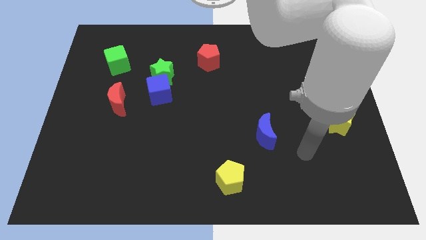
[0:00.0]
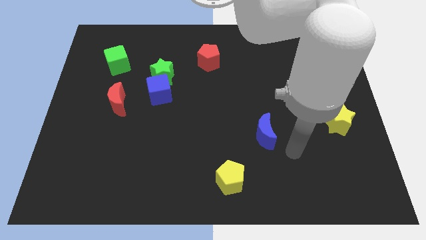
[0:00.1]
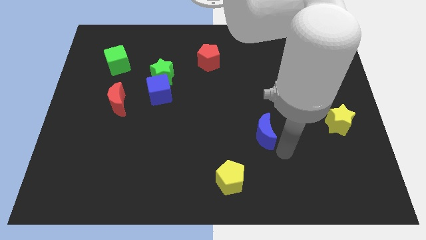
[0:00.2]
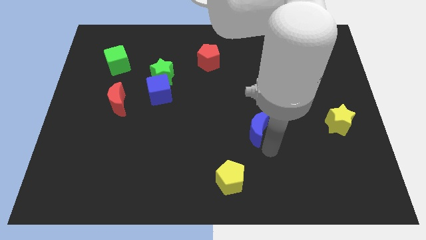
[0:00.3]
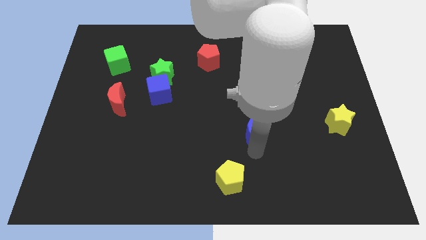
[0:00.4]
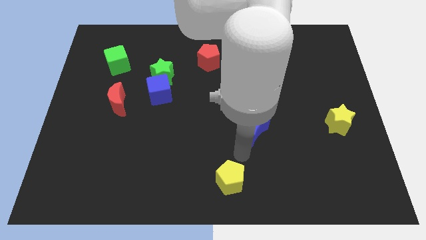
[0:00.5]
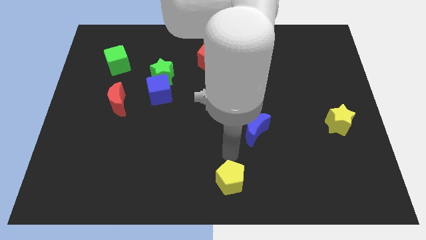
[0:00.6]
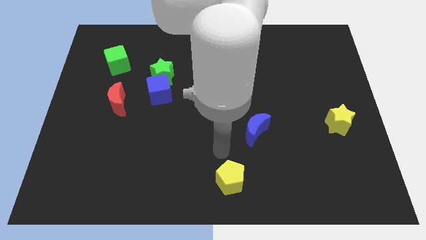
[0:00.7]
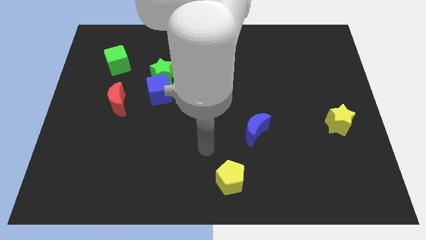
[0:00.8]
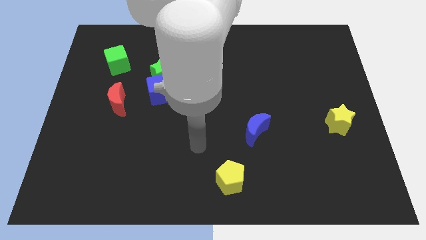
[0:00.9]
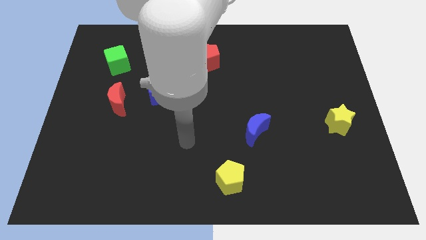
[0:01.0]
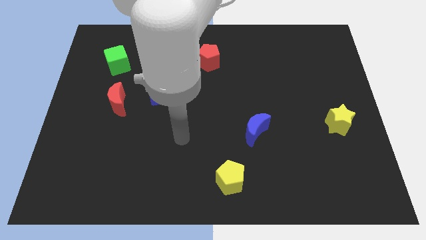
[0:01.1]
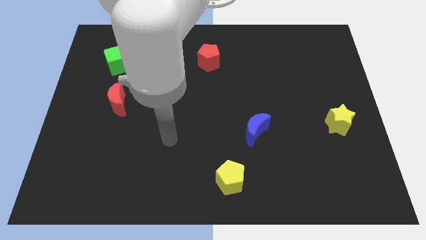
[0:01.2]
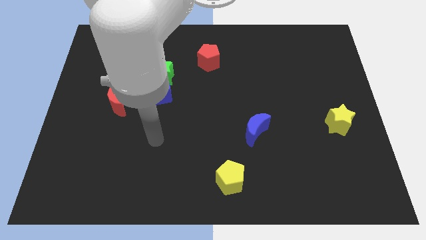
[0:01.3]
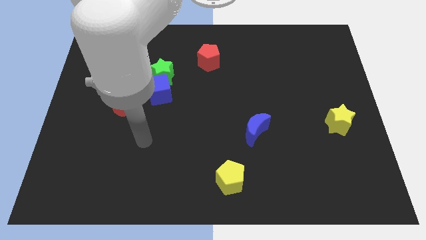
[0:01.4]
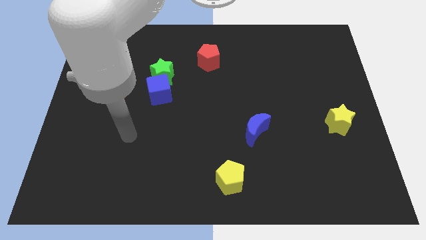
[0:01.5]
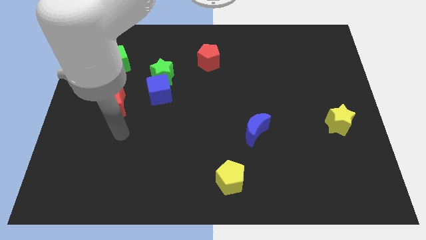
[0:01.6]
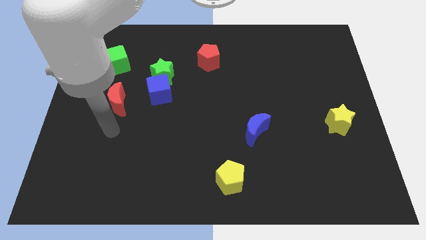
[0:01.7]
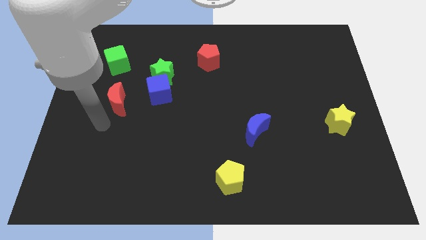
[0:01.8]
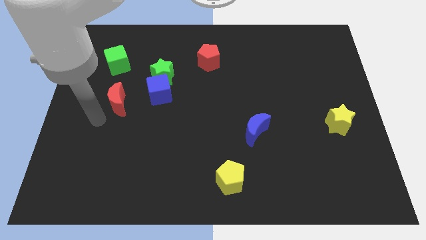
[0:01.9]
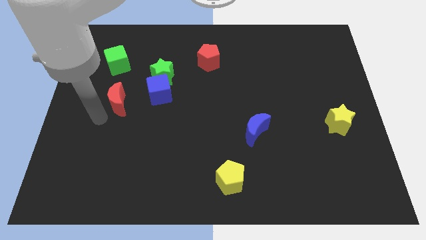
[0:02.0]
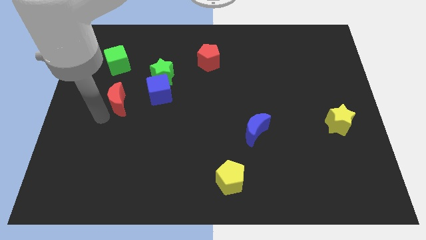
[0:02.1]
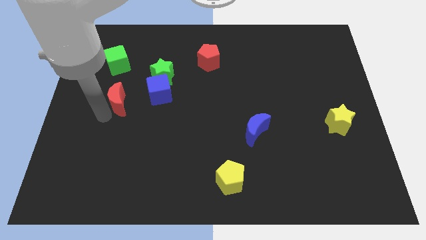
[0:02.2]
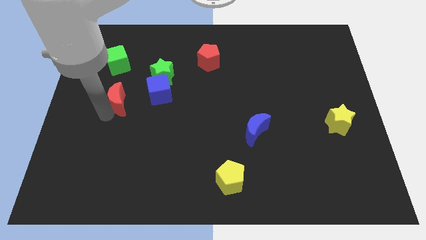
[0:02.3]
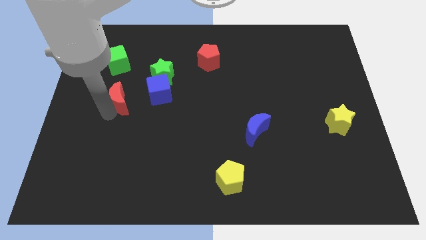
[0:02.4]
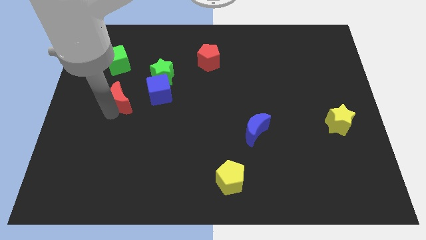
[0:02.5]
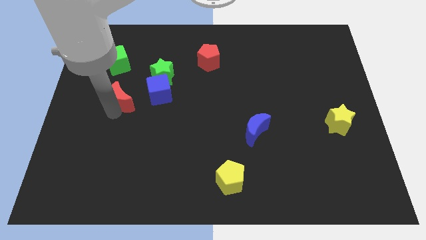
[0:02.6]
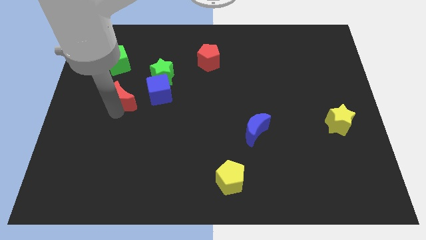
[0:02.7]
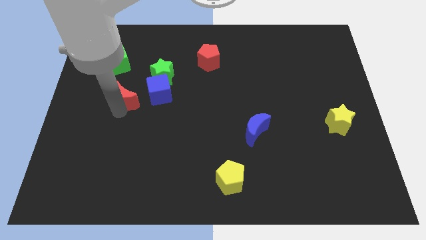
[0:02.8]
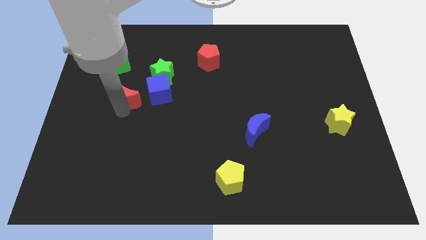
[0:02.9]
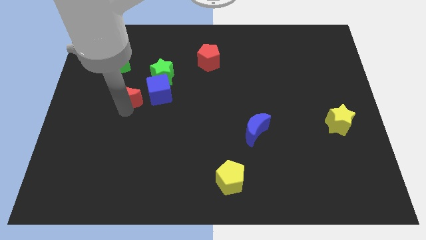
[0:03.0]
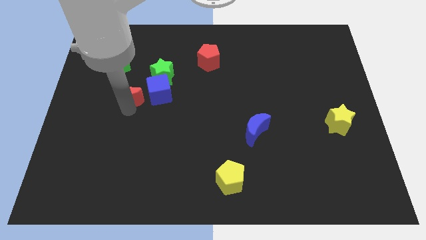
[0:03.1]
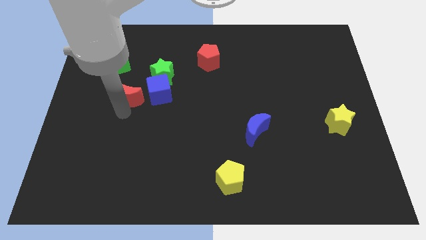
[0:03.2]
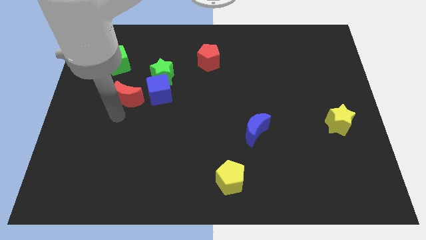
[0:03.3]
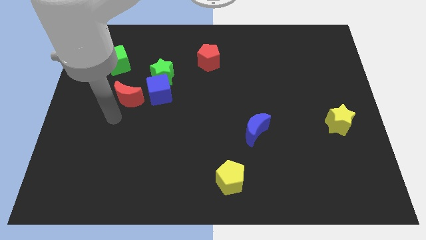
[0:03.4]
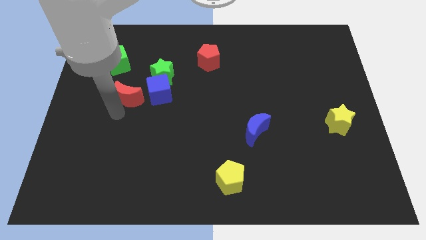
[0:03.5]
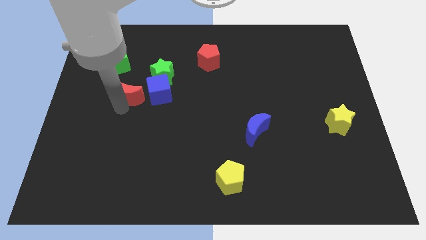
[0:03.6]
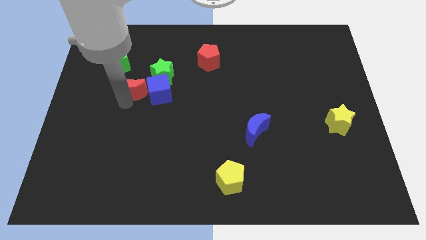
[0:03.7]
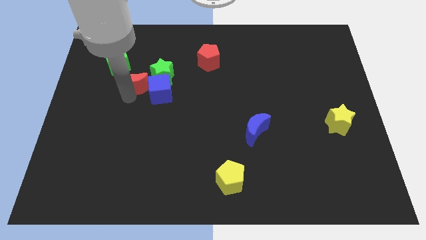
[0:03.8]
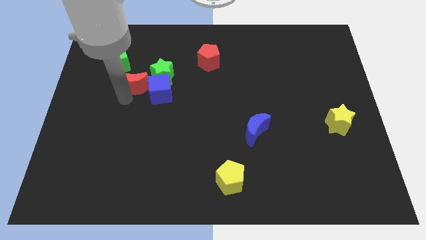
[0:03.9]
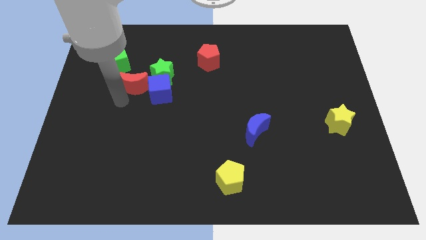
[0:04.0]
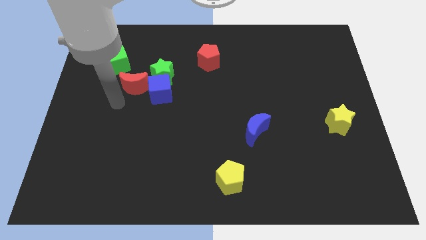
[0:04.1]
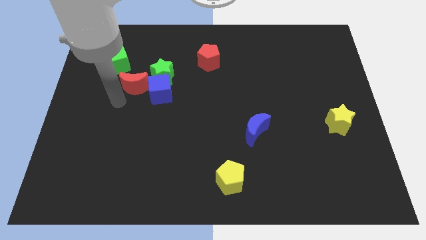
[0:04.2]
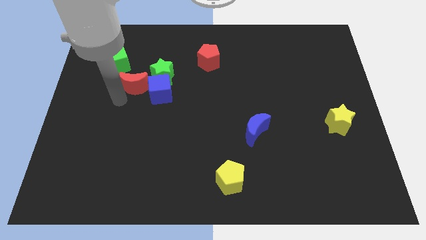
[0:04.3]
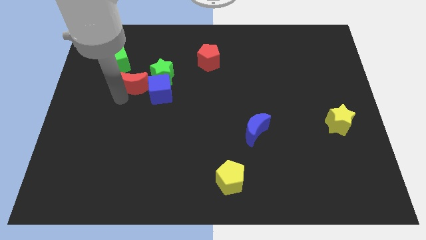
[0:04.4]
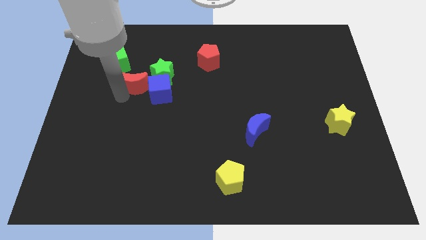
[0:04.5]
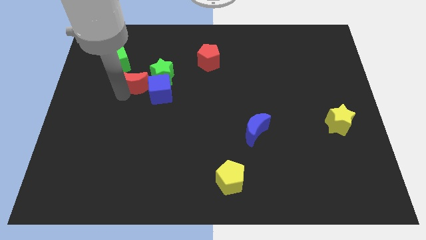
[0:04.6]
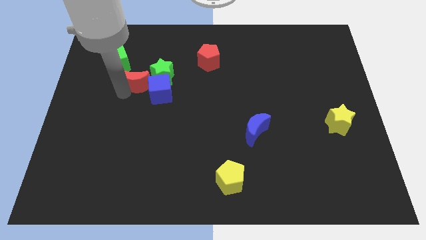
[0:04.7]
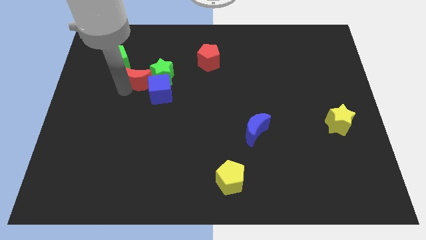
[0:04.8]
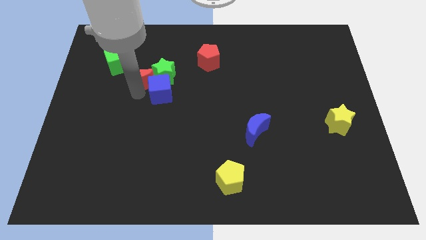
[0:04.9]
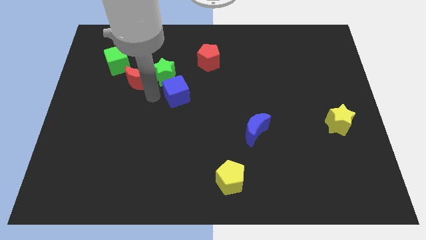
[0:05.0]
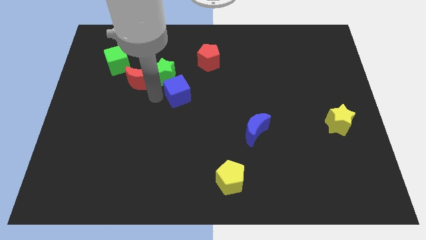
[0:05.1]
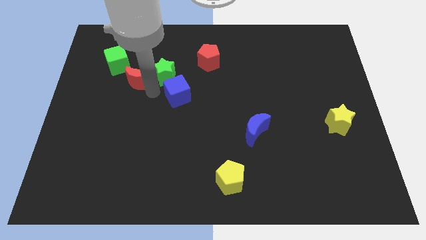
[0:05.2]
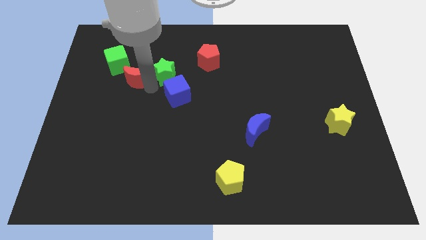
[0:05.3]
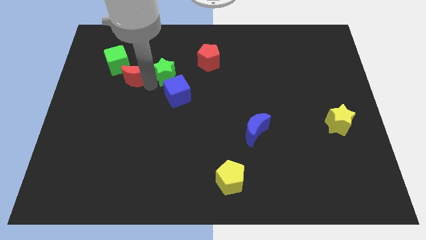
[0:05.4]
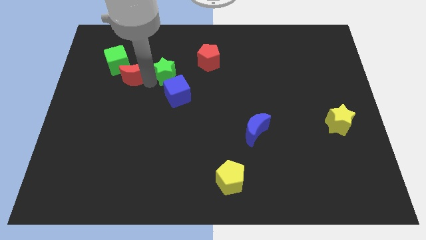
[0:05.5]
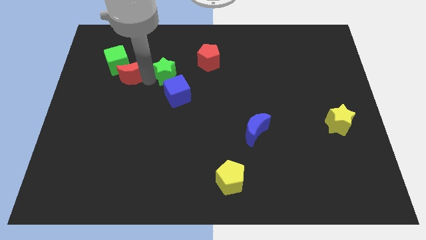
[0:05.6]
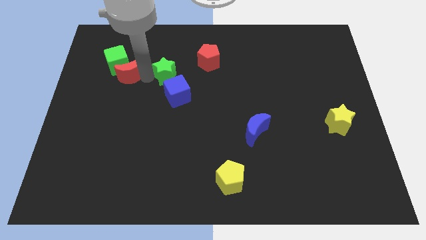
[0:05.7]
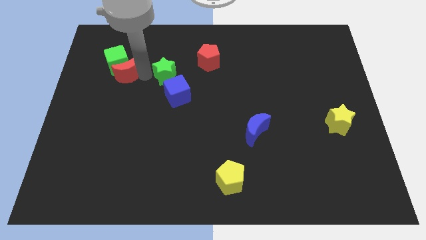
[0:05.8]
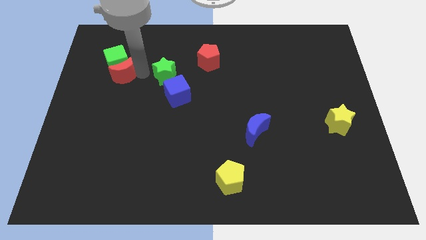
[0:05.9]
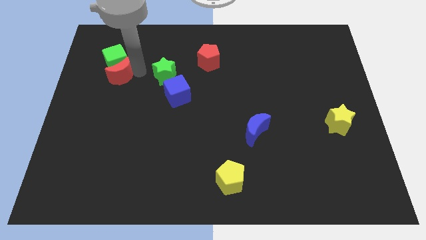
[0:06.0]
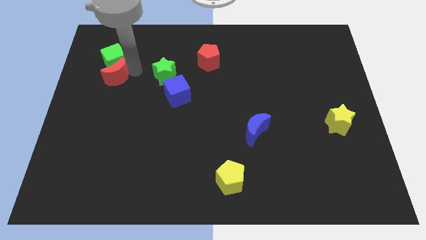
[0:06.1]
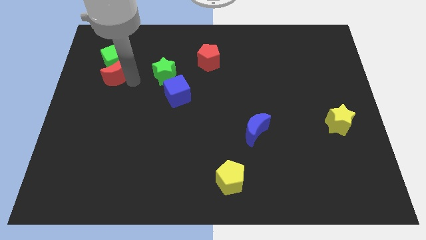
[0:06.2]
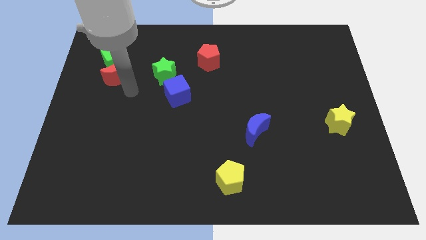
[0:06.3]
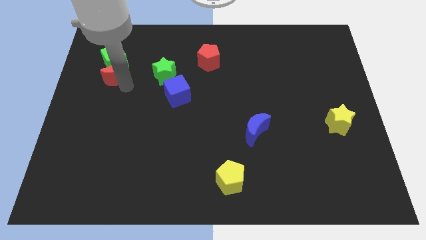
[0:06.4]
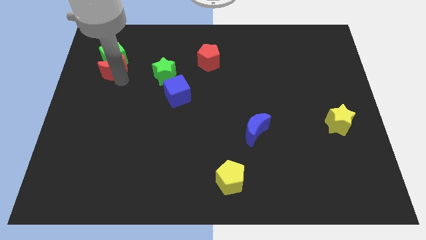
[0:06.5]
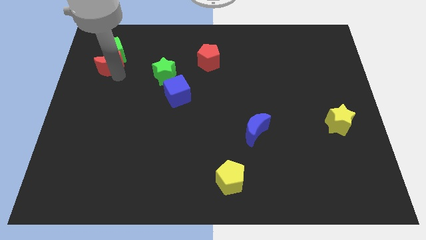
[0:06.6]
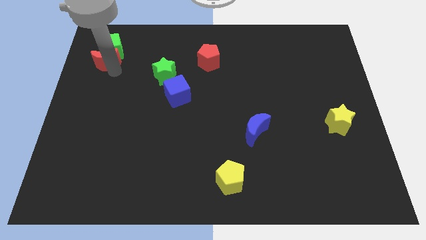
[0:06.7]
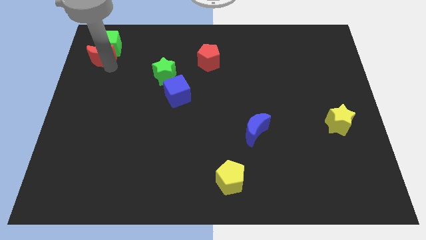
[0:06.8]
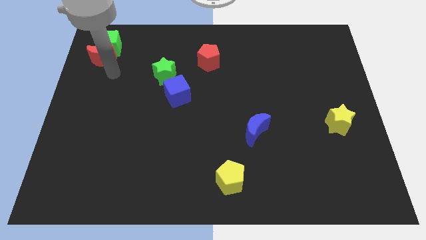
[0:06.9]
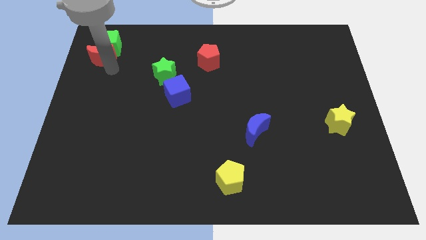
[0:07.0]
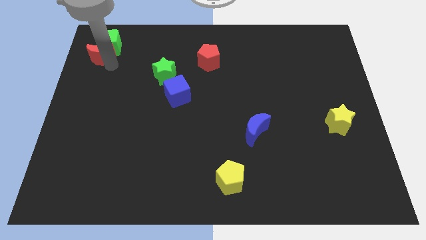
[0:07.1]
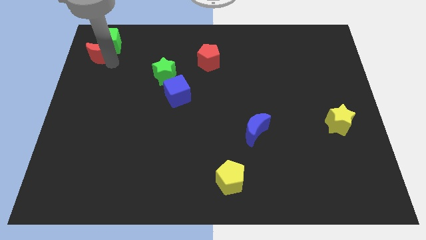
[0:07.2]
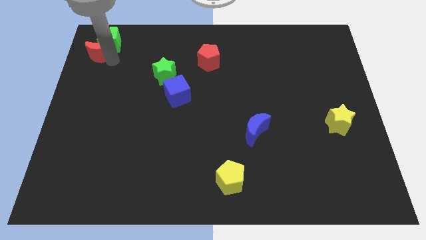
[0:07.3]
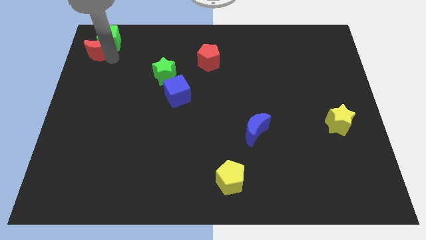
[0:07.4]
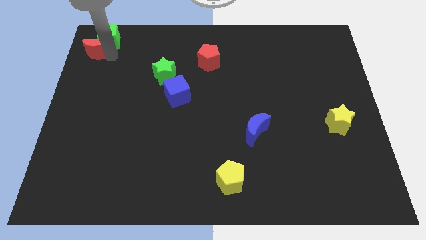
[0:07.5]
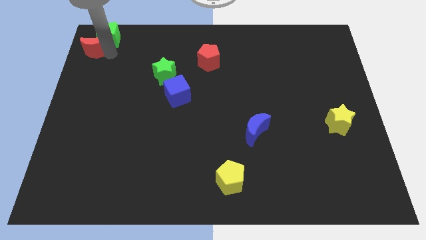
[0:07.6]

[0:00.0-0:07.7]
slide the red moon to the top left
